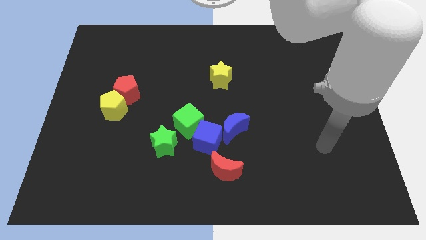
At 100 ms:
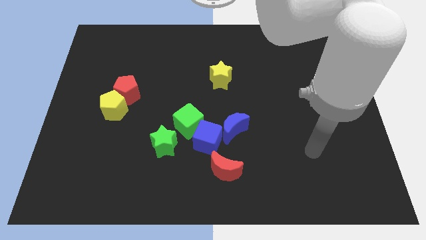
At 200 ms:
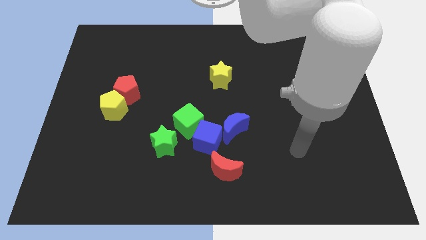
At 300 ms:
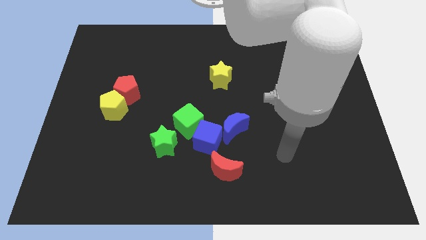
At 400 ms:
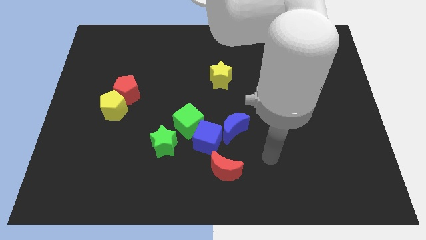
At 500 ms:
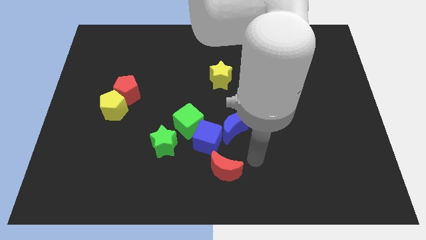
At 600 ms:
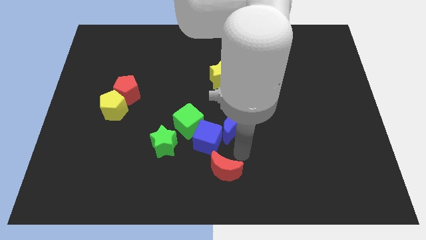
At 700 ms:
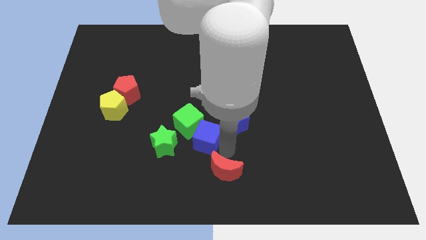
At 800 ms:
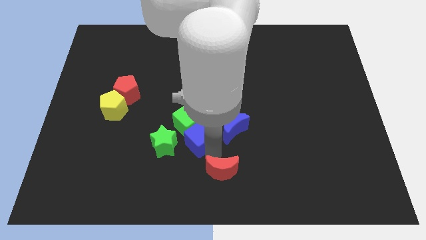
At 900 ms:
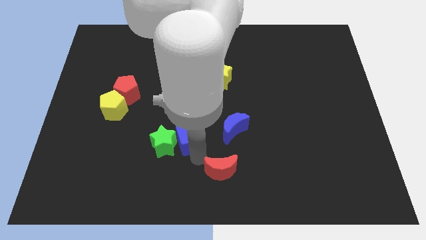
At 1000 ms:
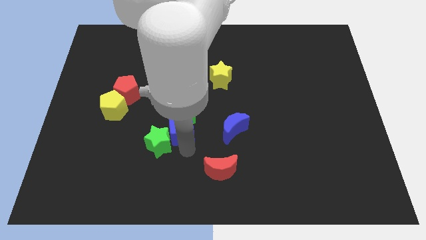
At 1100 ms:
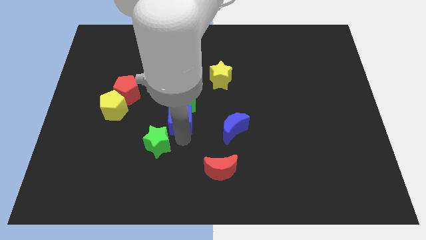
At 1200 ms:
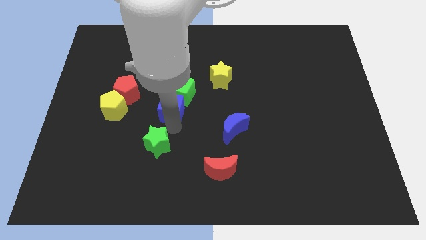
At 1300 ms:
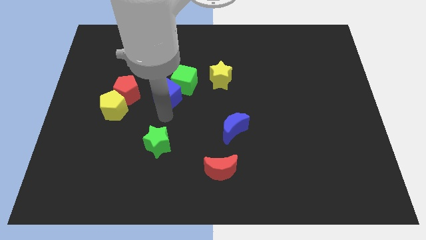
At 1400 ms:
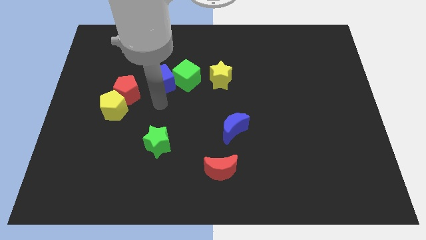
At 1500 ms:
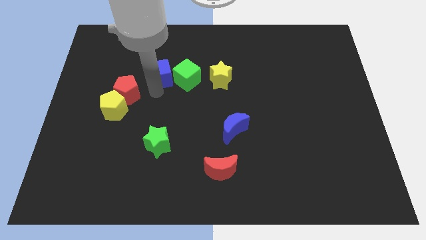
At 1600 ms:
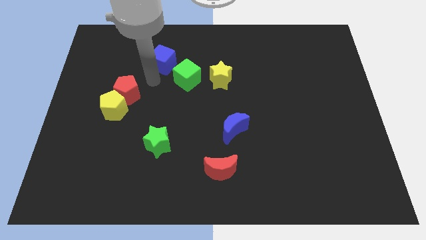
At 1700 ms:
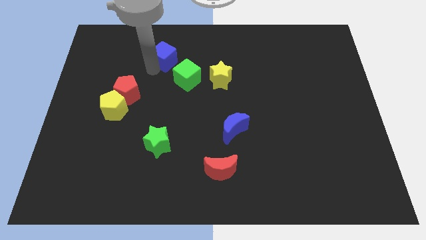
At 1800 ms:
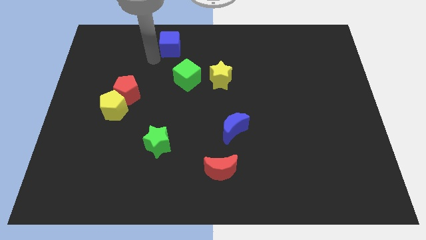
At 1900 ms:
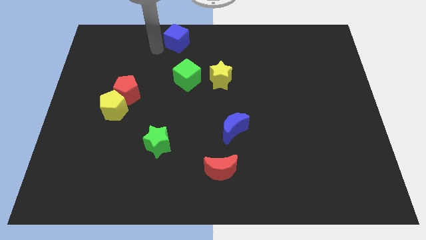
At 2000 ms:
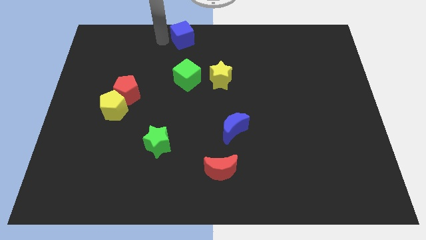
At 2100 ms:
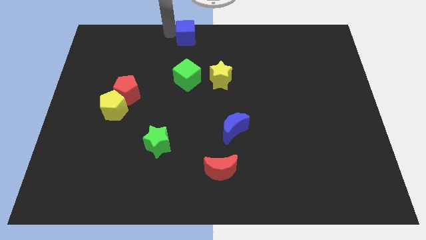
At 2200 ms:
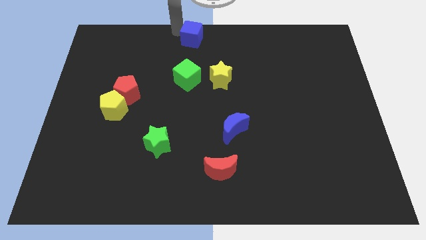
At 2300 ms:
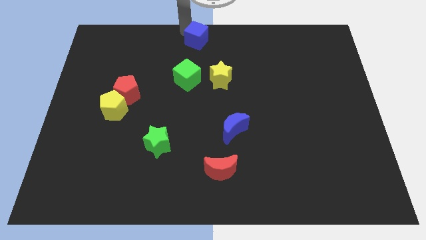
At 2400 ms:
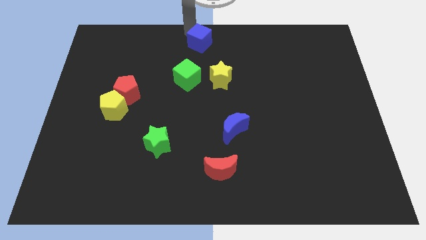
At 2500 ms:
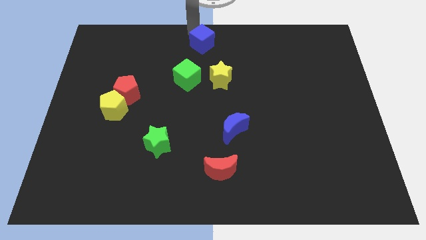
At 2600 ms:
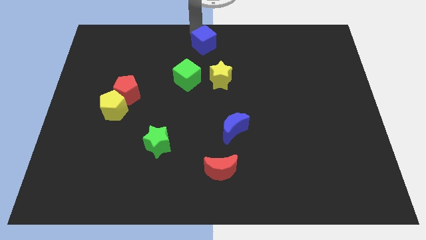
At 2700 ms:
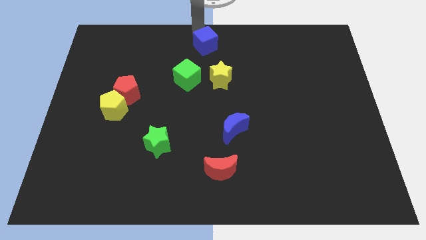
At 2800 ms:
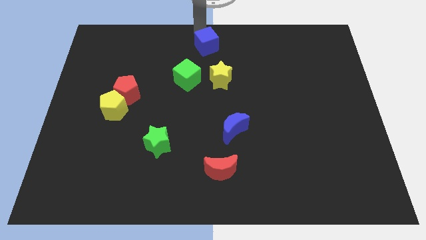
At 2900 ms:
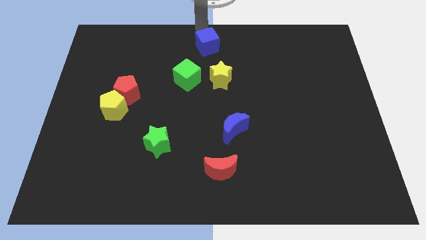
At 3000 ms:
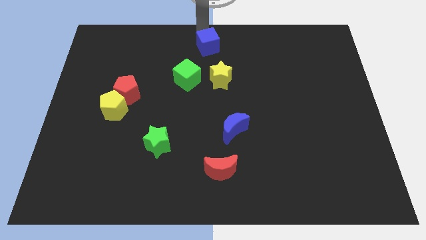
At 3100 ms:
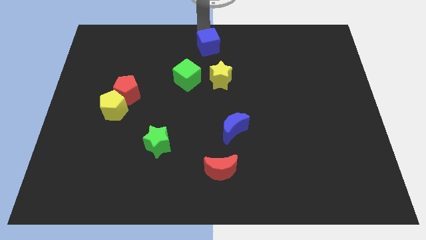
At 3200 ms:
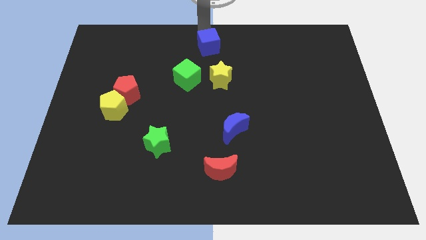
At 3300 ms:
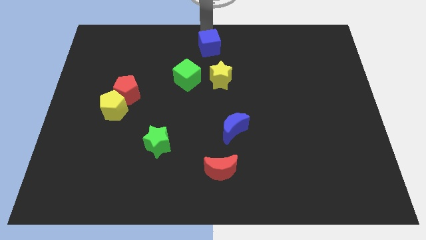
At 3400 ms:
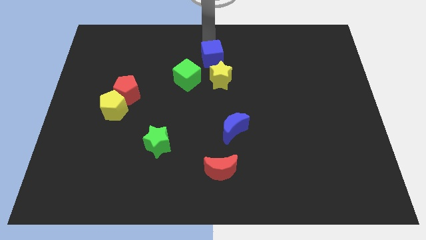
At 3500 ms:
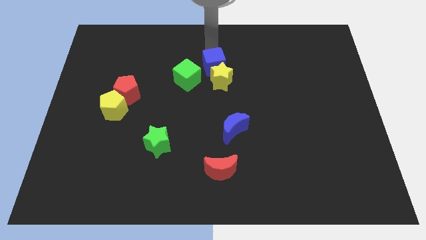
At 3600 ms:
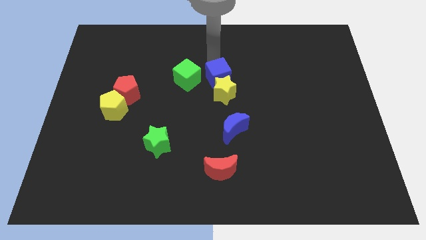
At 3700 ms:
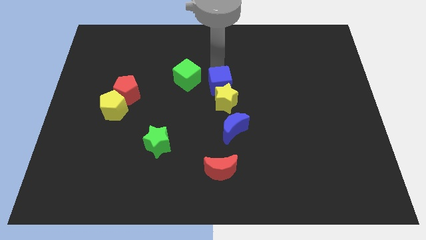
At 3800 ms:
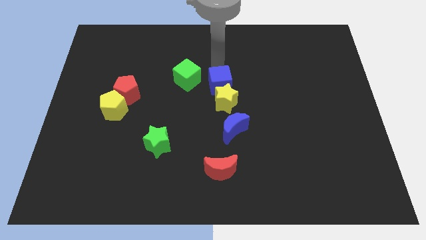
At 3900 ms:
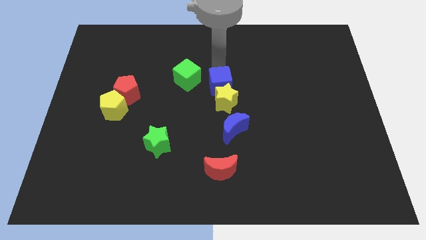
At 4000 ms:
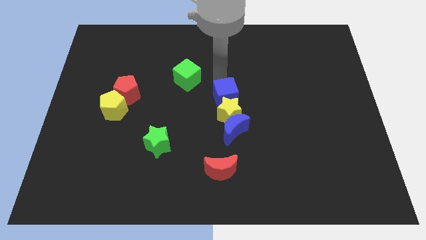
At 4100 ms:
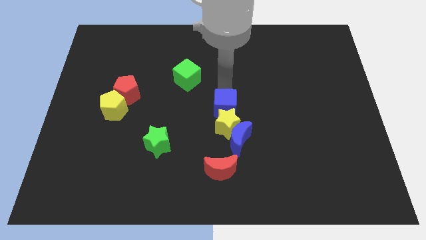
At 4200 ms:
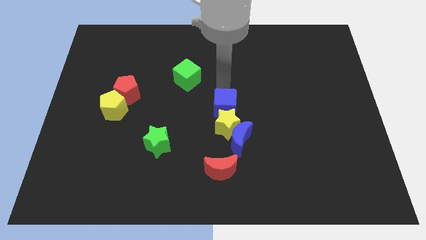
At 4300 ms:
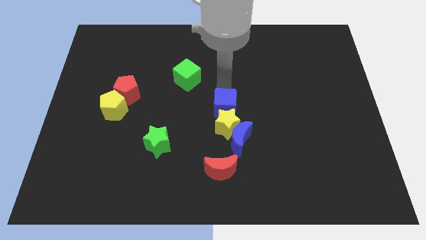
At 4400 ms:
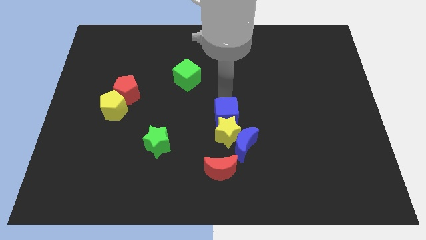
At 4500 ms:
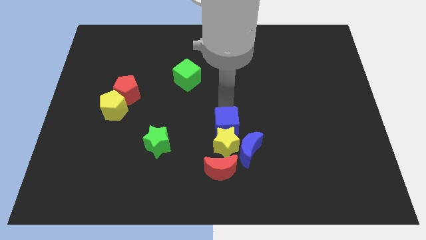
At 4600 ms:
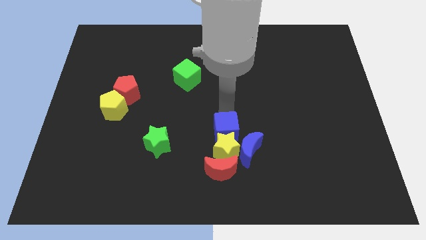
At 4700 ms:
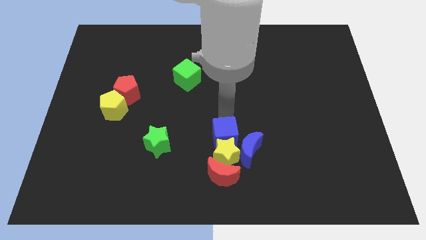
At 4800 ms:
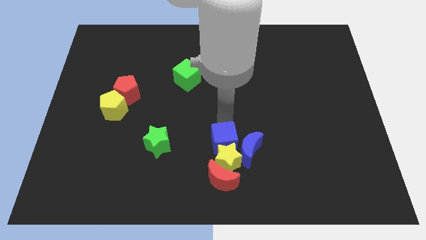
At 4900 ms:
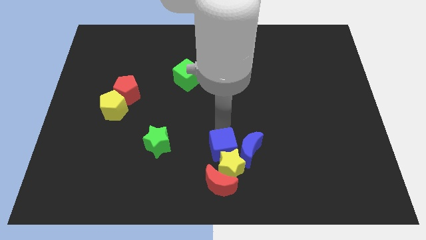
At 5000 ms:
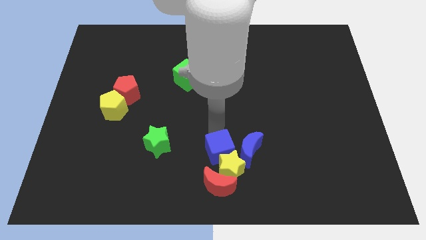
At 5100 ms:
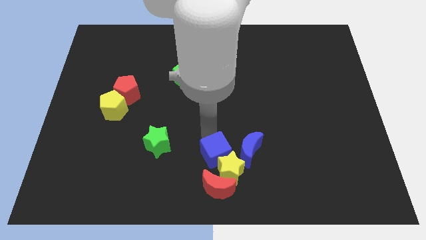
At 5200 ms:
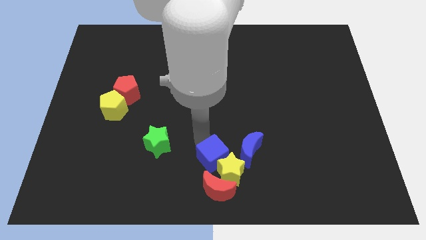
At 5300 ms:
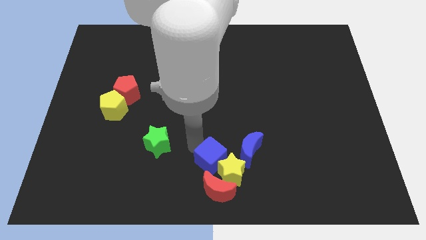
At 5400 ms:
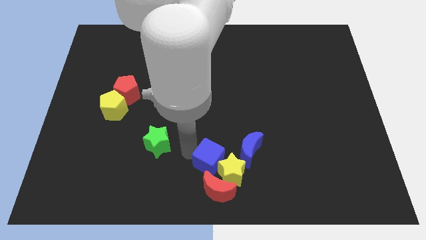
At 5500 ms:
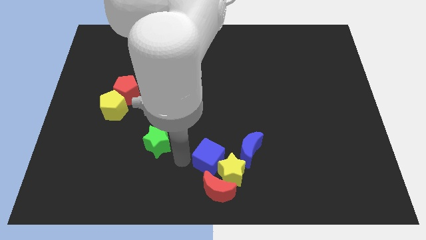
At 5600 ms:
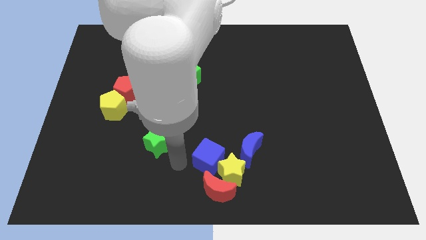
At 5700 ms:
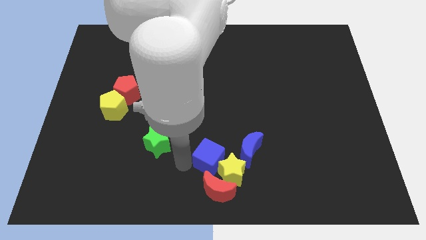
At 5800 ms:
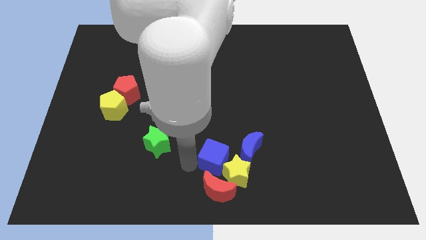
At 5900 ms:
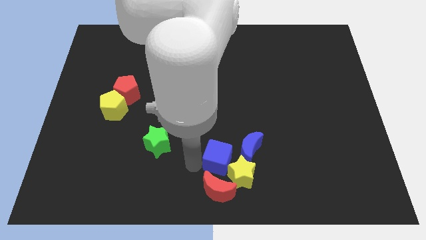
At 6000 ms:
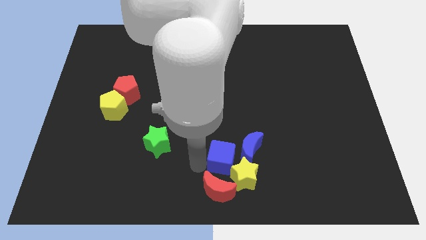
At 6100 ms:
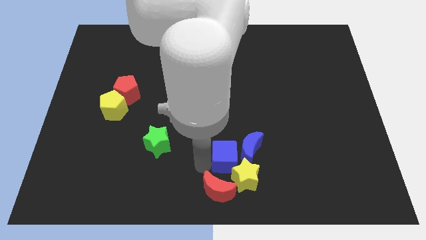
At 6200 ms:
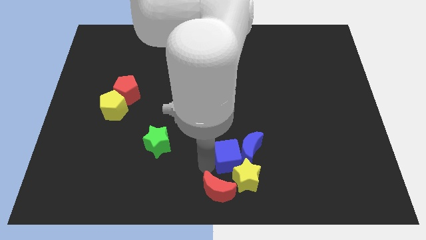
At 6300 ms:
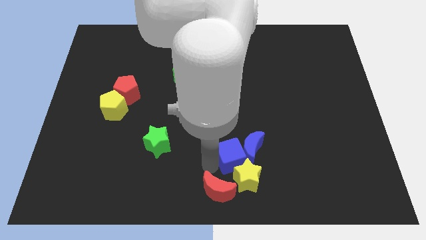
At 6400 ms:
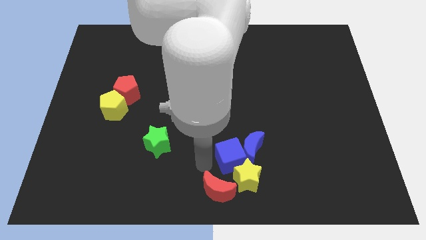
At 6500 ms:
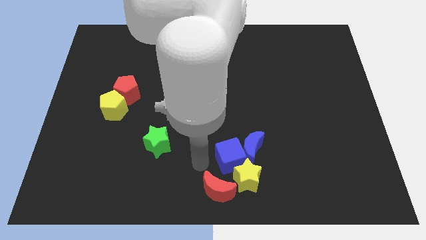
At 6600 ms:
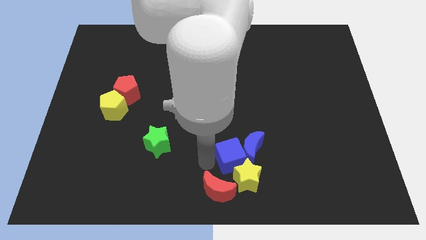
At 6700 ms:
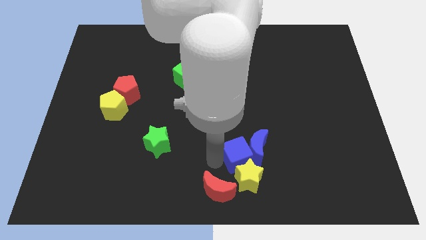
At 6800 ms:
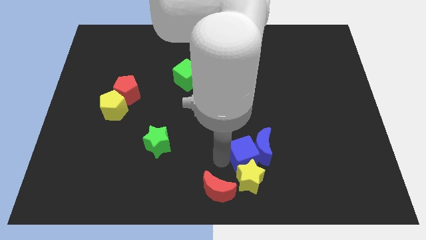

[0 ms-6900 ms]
push the blue cube to the right a little bit

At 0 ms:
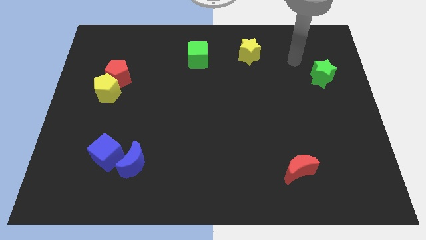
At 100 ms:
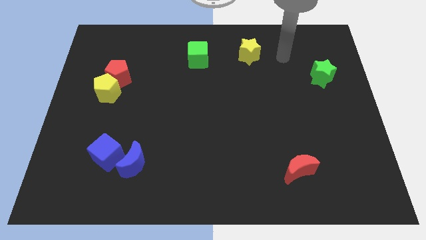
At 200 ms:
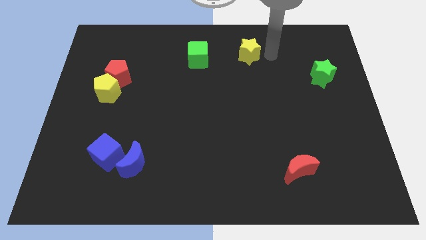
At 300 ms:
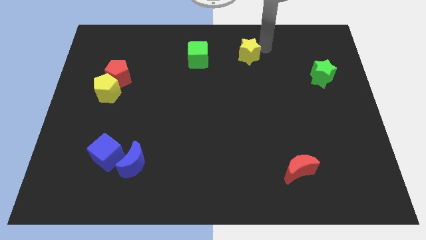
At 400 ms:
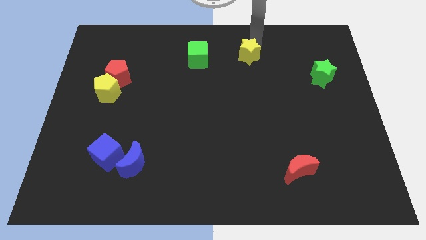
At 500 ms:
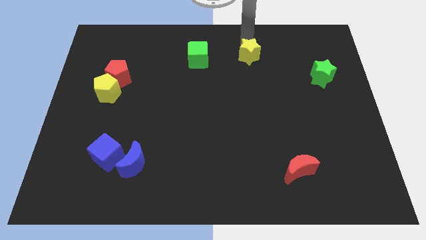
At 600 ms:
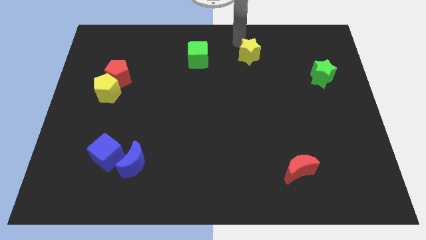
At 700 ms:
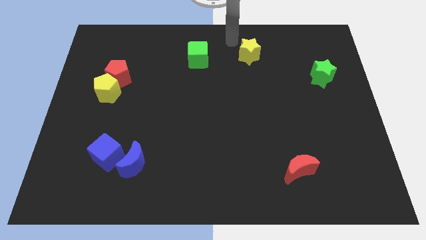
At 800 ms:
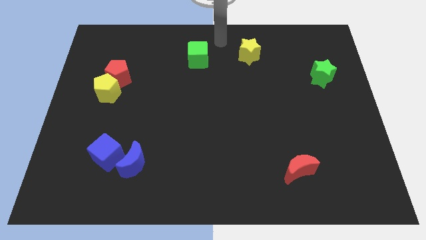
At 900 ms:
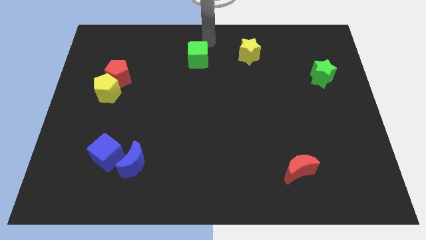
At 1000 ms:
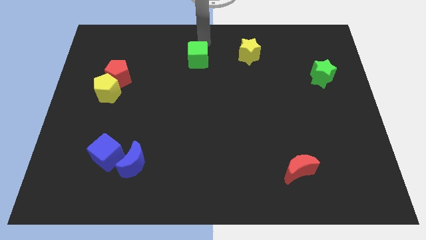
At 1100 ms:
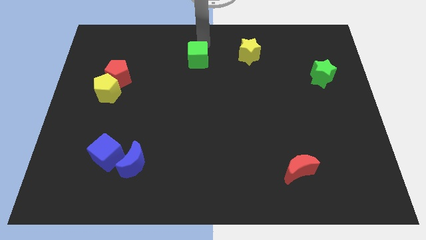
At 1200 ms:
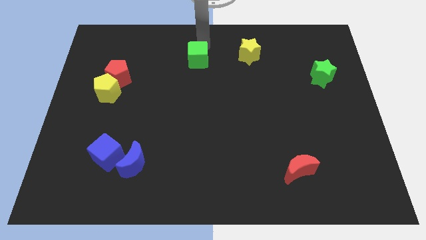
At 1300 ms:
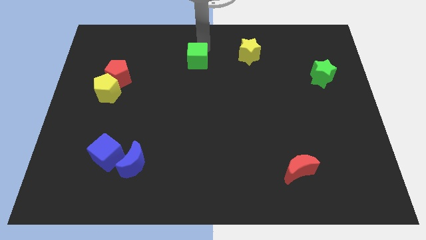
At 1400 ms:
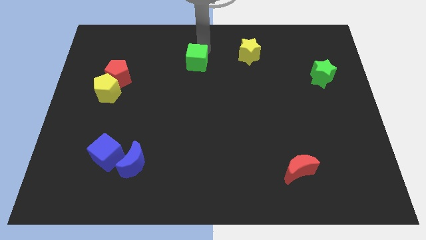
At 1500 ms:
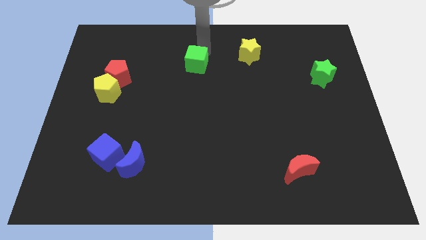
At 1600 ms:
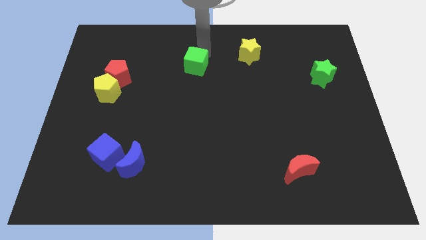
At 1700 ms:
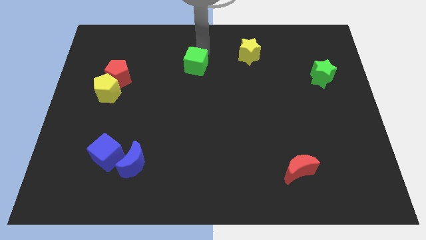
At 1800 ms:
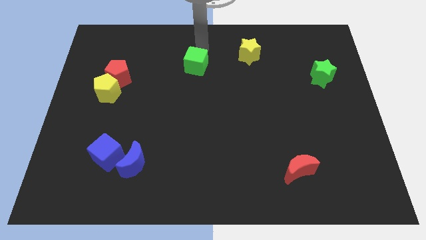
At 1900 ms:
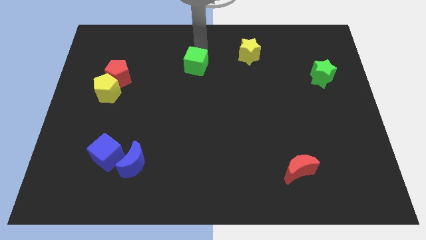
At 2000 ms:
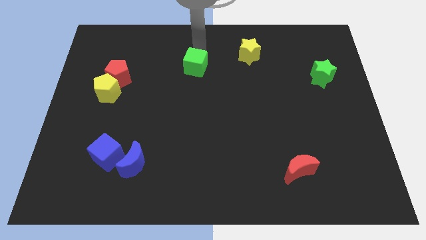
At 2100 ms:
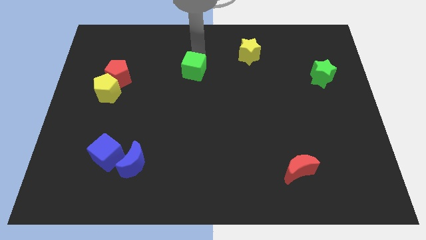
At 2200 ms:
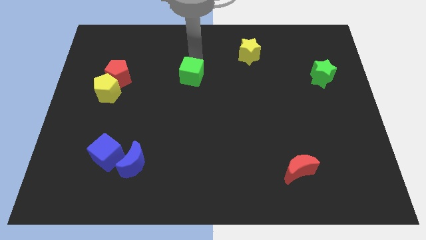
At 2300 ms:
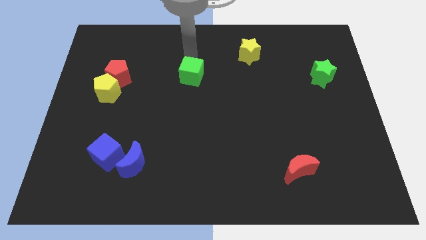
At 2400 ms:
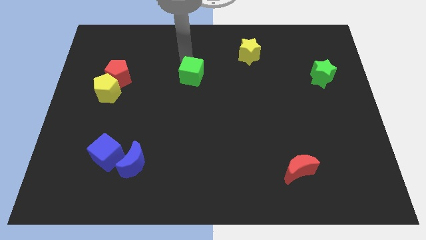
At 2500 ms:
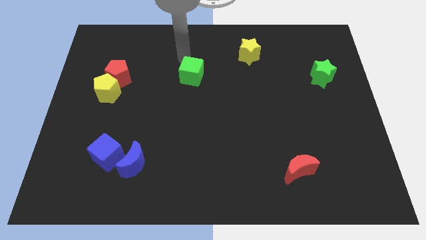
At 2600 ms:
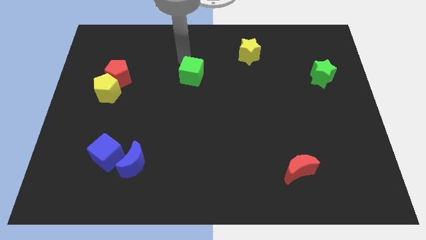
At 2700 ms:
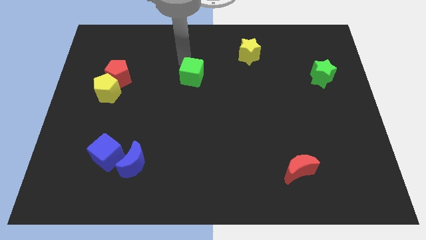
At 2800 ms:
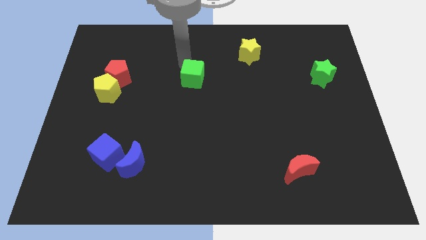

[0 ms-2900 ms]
slightly push the green cube downwards
